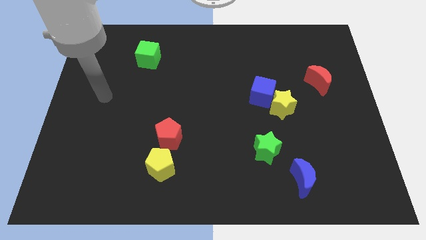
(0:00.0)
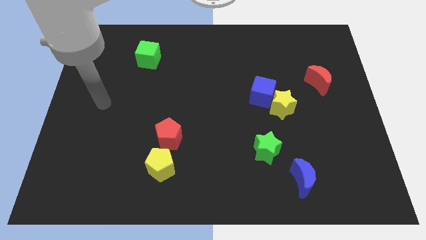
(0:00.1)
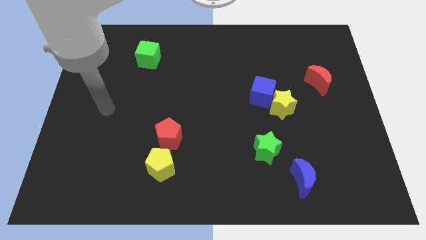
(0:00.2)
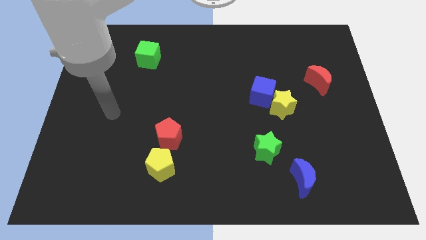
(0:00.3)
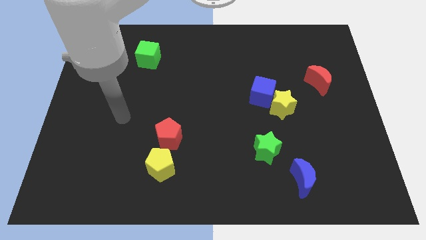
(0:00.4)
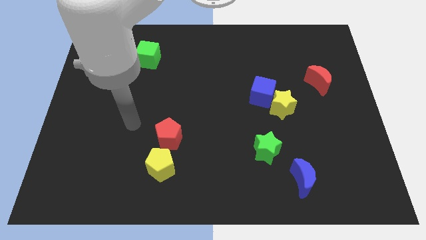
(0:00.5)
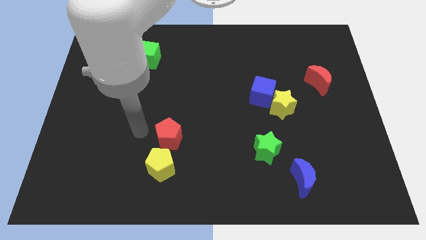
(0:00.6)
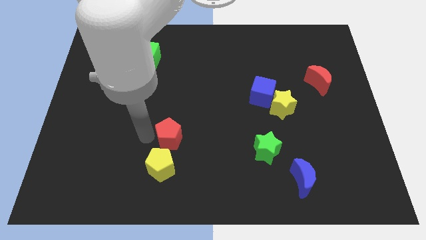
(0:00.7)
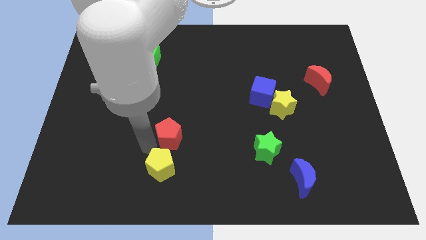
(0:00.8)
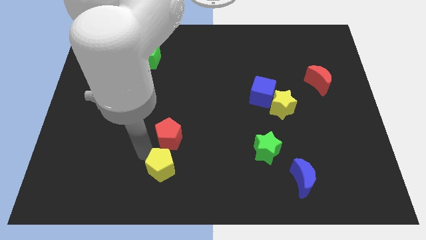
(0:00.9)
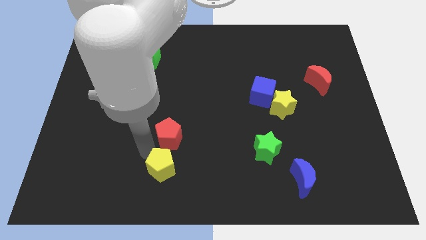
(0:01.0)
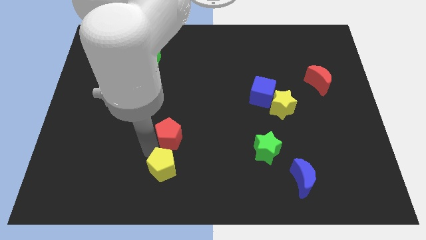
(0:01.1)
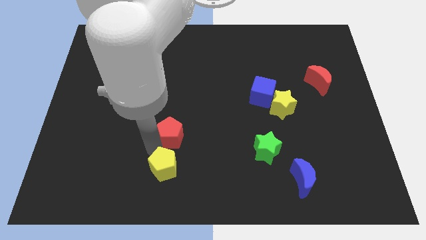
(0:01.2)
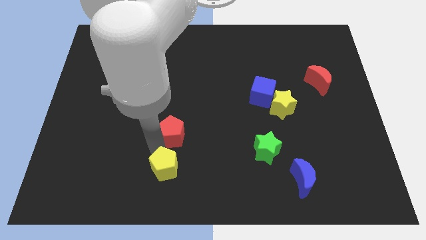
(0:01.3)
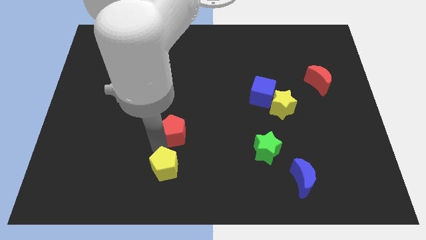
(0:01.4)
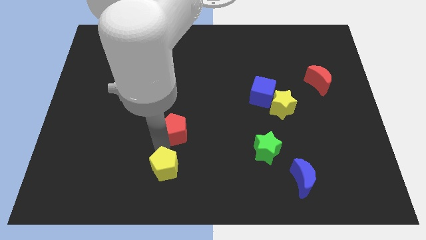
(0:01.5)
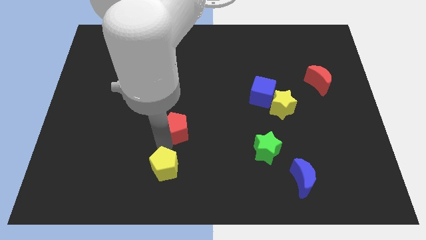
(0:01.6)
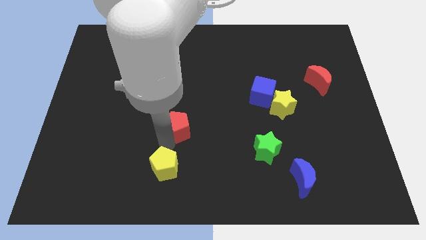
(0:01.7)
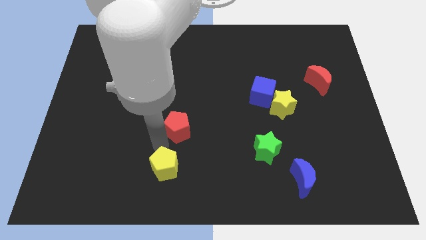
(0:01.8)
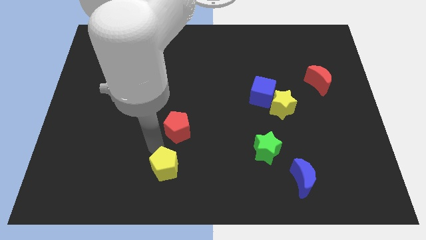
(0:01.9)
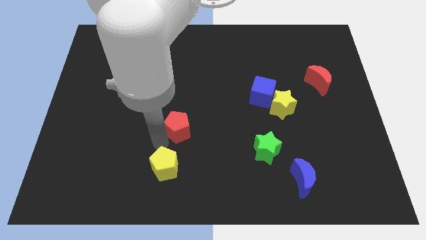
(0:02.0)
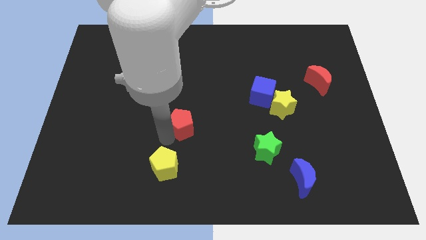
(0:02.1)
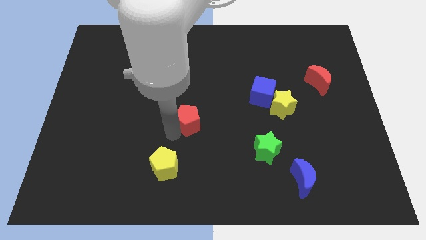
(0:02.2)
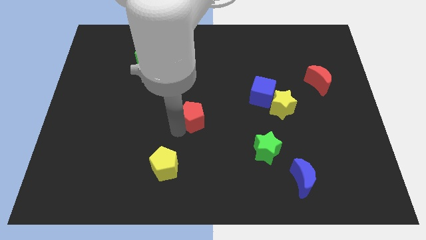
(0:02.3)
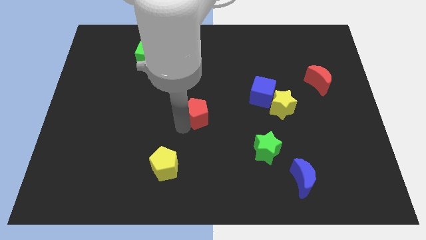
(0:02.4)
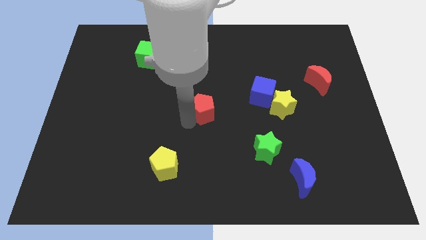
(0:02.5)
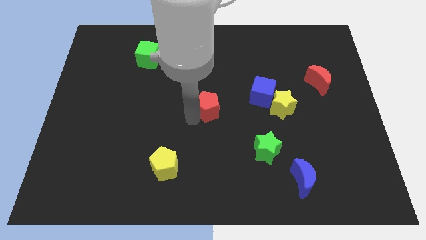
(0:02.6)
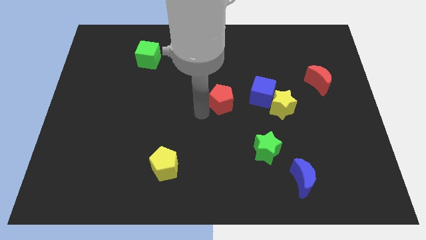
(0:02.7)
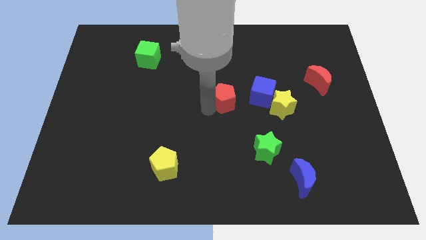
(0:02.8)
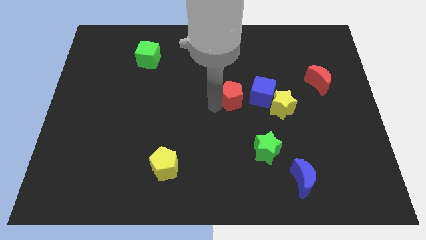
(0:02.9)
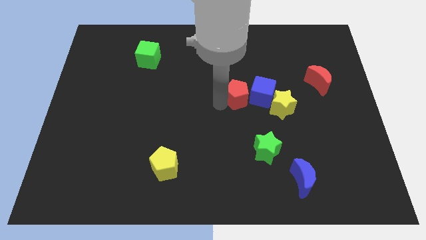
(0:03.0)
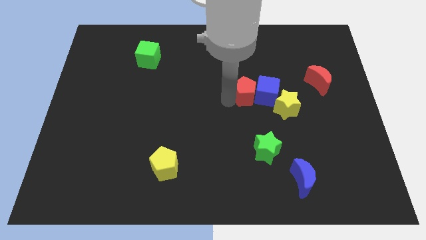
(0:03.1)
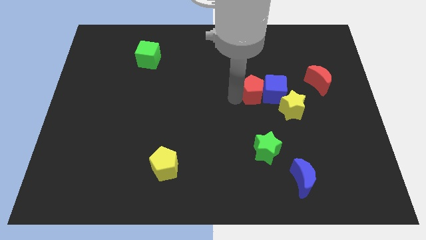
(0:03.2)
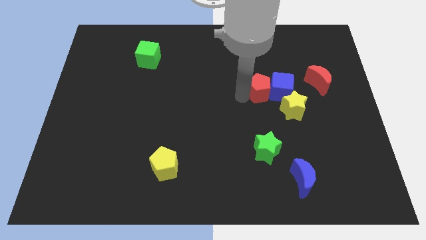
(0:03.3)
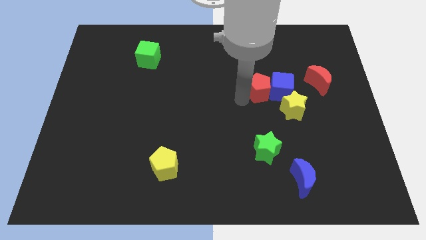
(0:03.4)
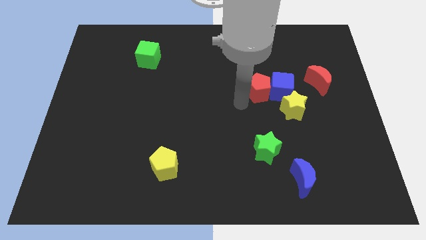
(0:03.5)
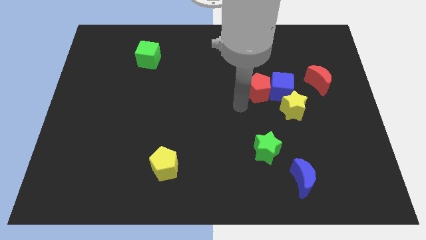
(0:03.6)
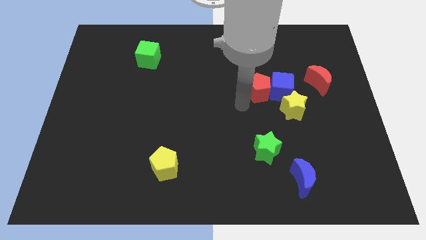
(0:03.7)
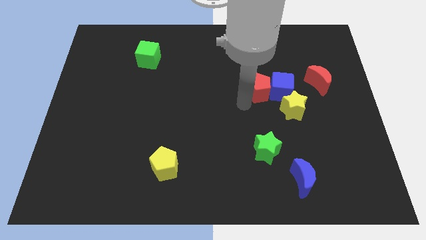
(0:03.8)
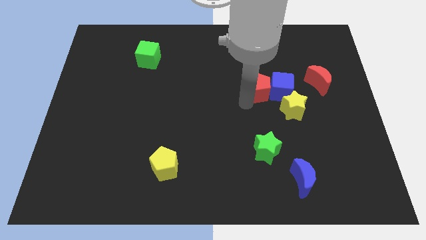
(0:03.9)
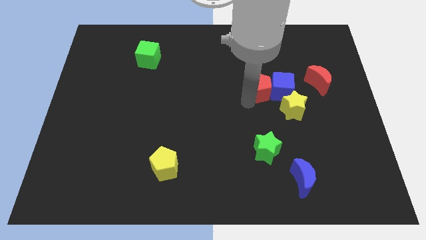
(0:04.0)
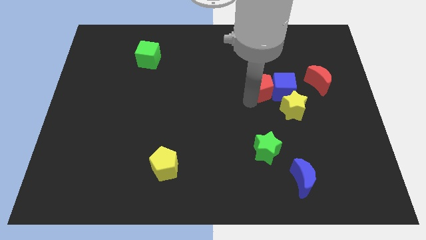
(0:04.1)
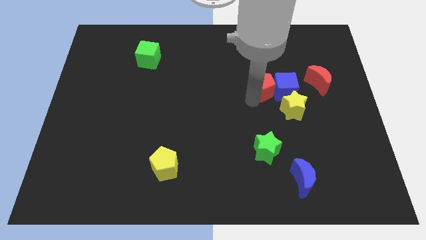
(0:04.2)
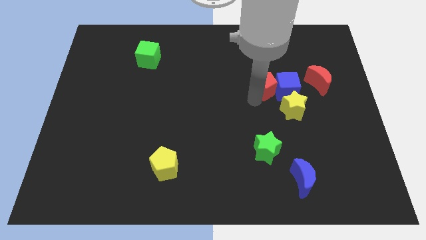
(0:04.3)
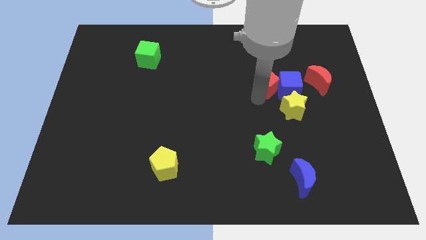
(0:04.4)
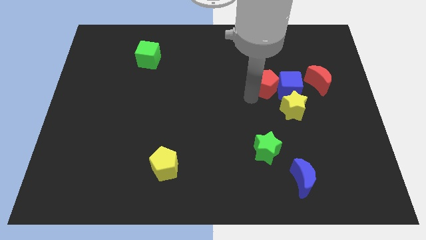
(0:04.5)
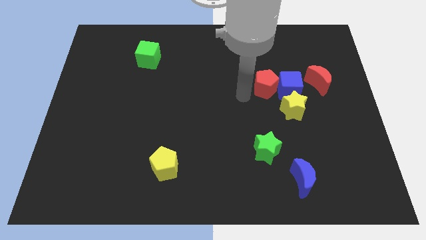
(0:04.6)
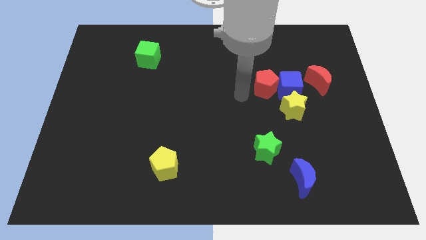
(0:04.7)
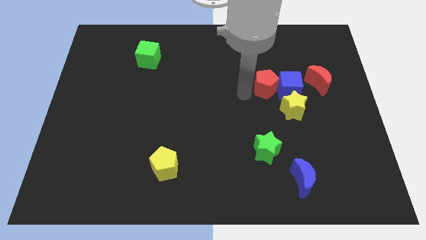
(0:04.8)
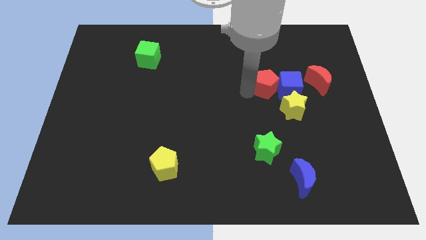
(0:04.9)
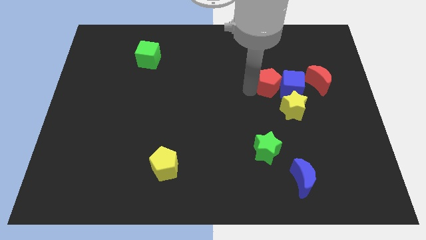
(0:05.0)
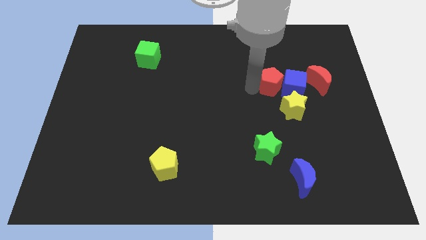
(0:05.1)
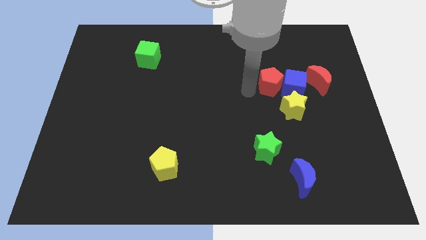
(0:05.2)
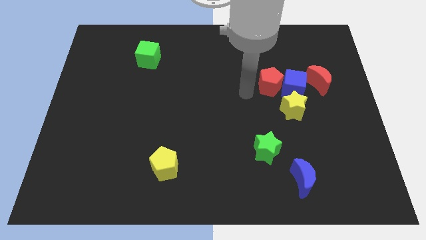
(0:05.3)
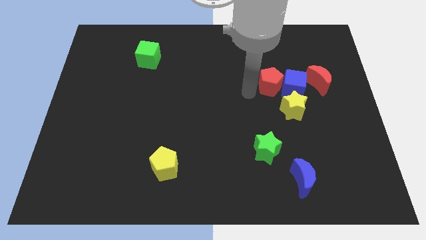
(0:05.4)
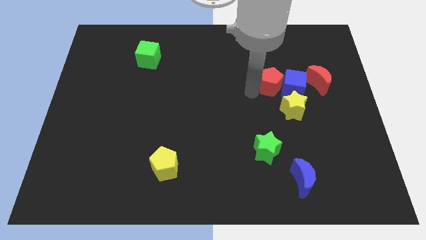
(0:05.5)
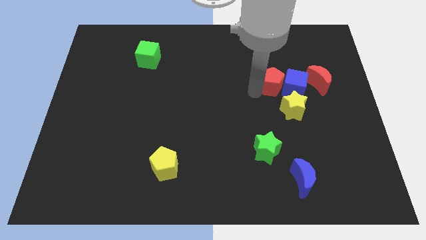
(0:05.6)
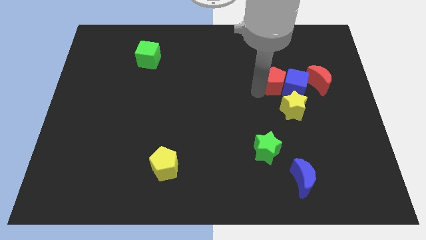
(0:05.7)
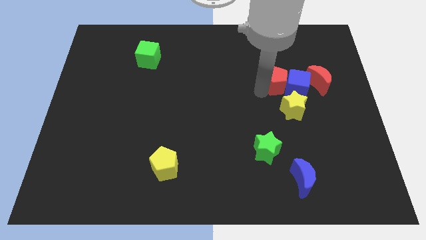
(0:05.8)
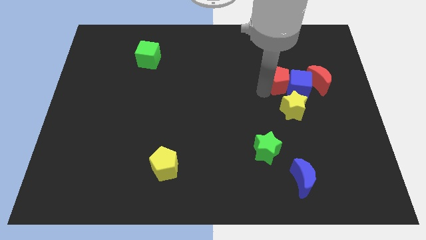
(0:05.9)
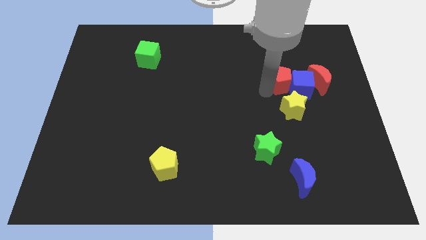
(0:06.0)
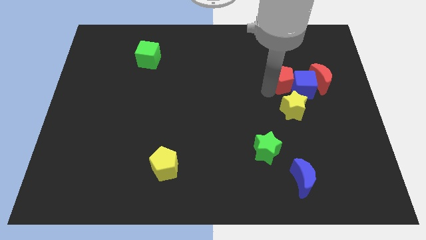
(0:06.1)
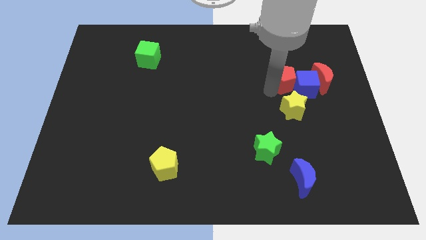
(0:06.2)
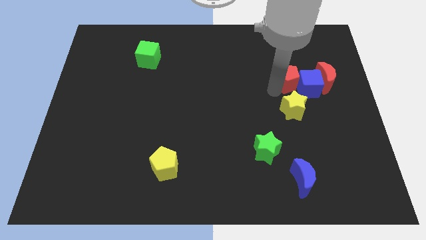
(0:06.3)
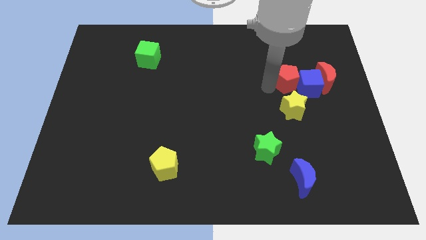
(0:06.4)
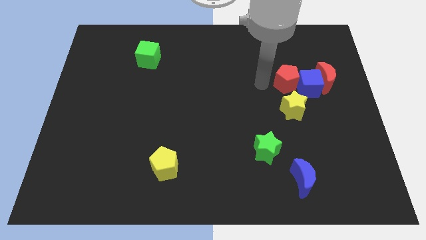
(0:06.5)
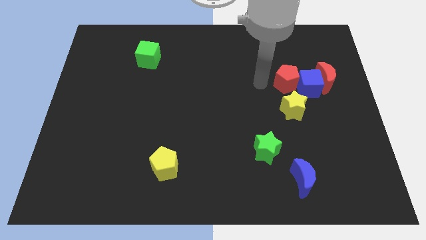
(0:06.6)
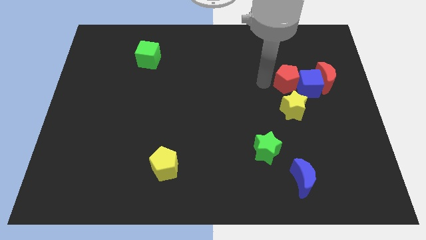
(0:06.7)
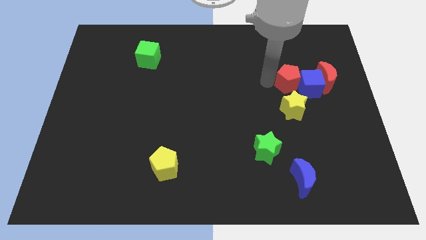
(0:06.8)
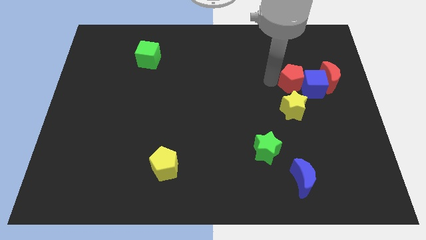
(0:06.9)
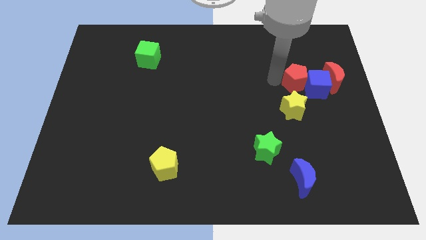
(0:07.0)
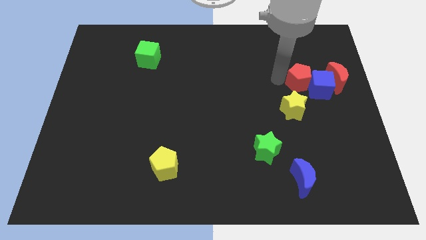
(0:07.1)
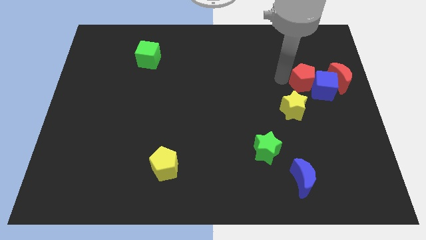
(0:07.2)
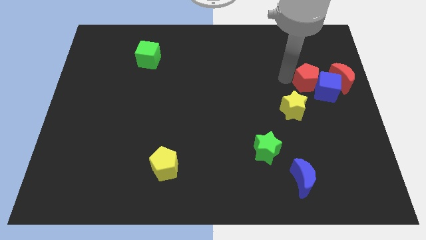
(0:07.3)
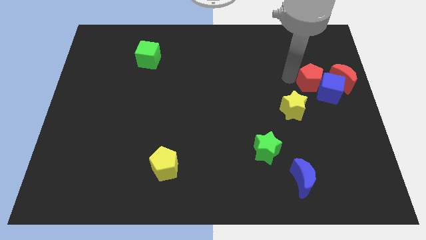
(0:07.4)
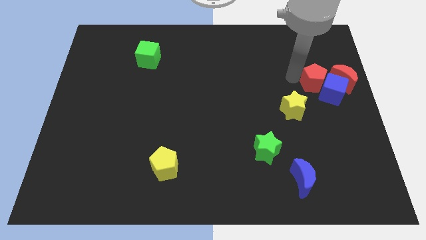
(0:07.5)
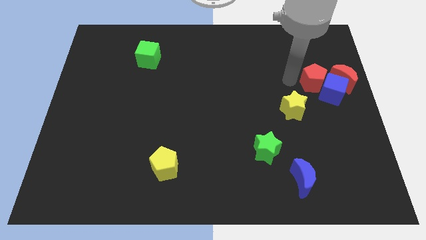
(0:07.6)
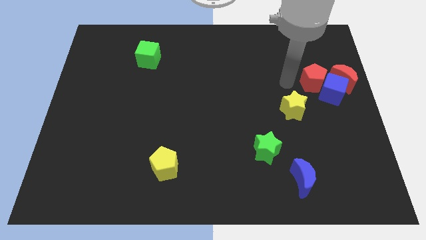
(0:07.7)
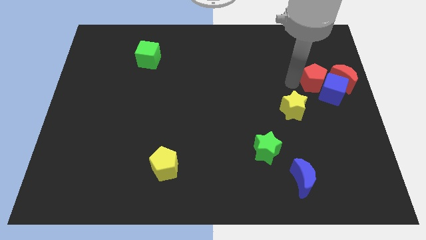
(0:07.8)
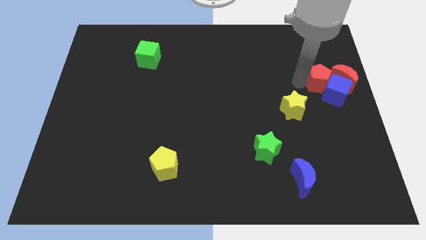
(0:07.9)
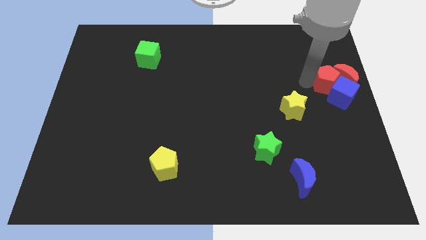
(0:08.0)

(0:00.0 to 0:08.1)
put the red pentagon towards the red moon
